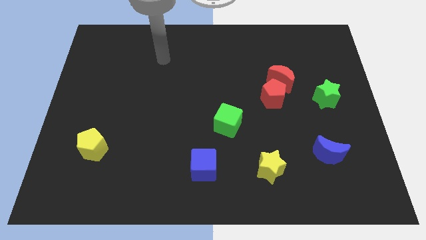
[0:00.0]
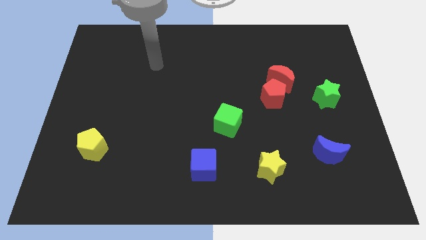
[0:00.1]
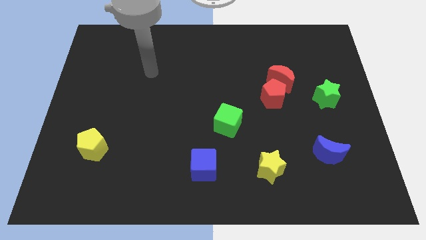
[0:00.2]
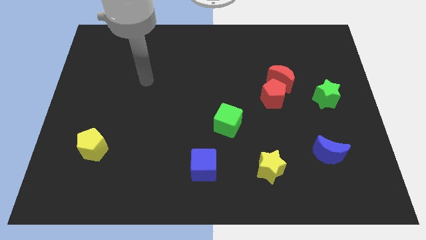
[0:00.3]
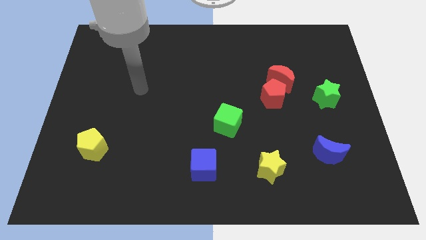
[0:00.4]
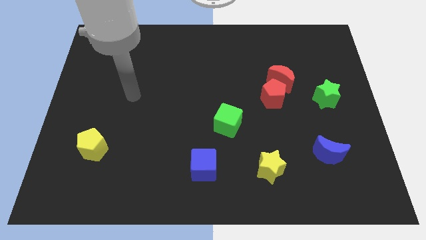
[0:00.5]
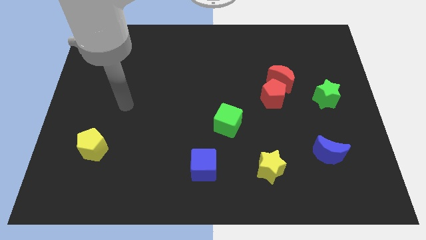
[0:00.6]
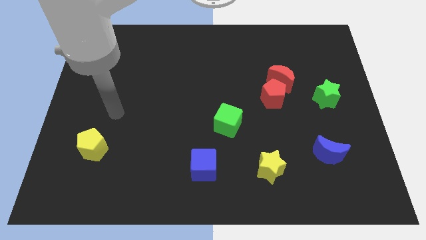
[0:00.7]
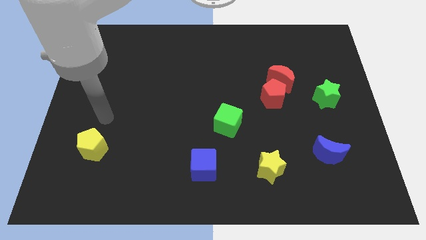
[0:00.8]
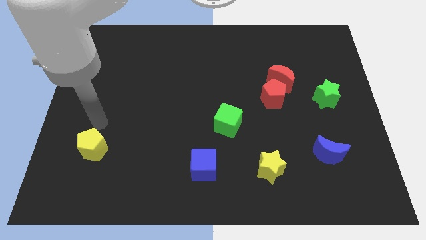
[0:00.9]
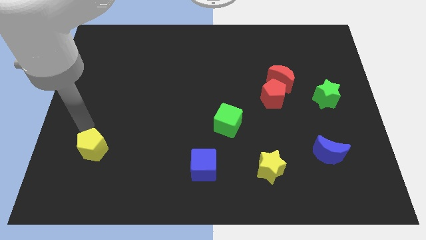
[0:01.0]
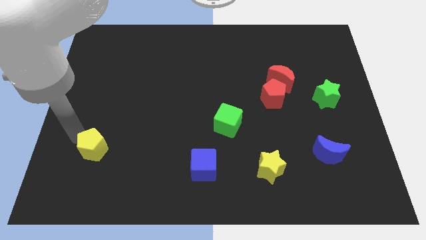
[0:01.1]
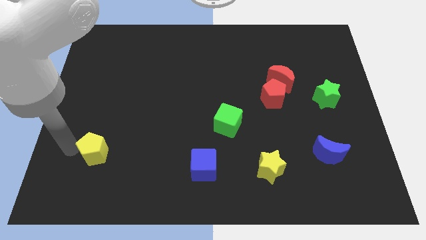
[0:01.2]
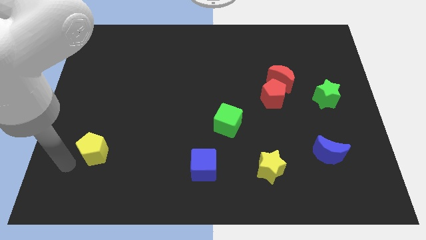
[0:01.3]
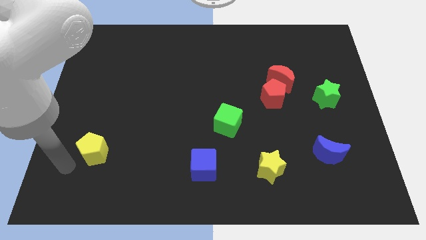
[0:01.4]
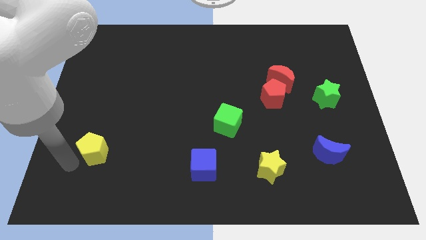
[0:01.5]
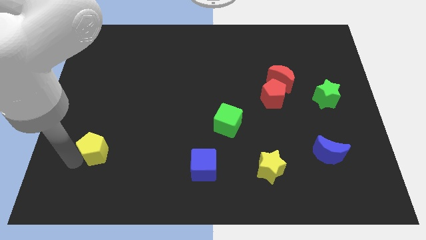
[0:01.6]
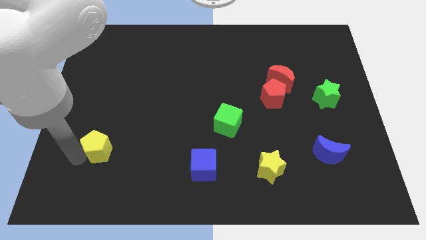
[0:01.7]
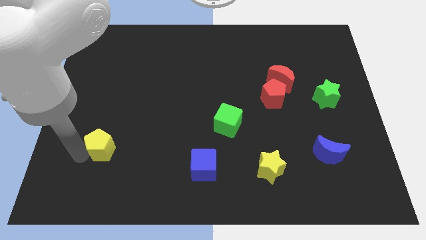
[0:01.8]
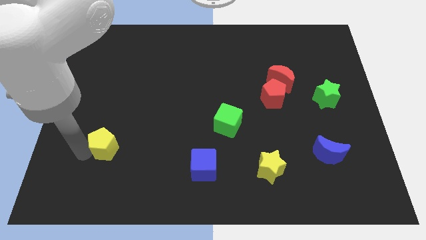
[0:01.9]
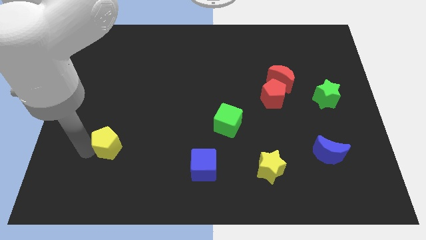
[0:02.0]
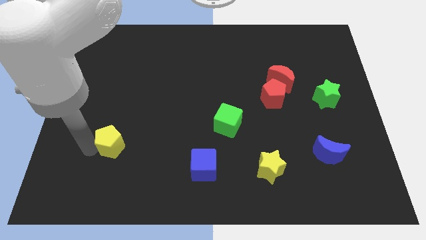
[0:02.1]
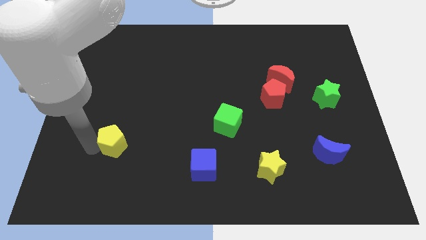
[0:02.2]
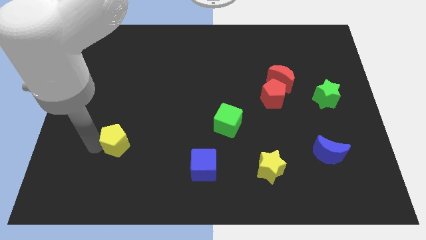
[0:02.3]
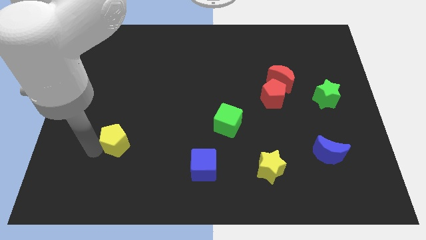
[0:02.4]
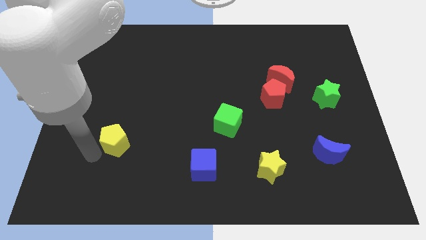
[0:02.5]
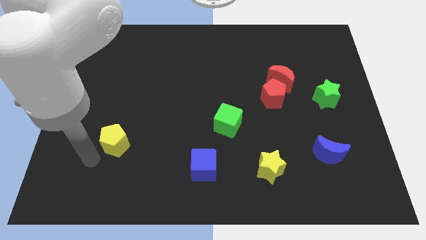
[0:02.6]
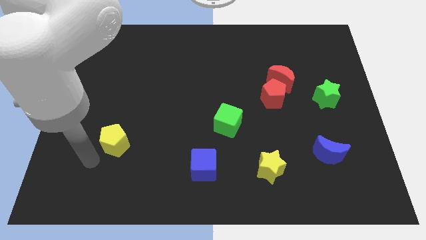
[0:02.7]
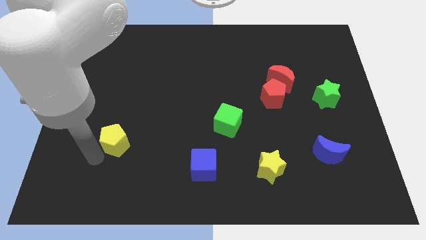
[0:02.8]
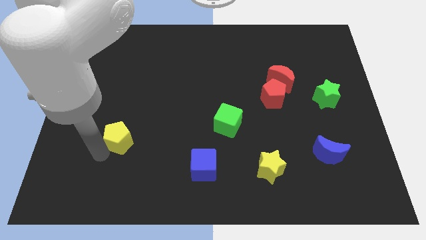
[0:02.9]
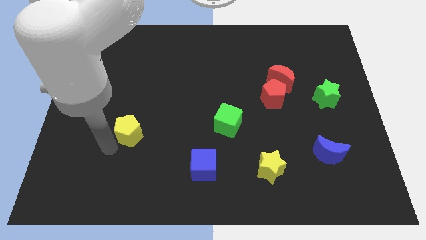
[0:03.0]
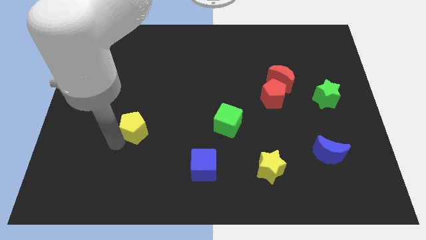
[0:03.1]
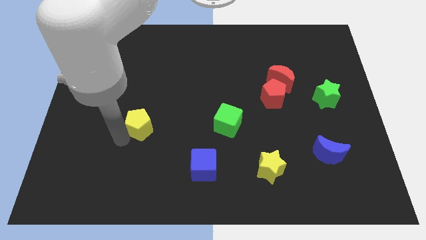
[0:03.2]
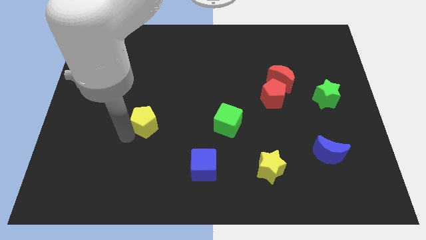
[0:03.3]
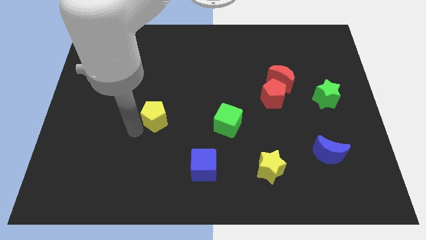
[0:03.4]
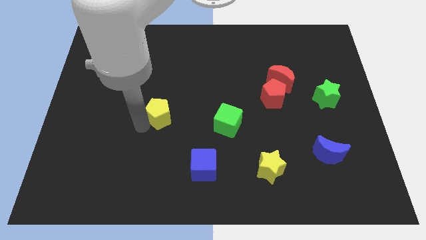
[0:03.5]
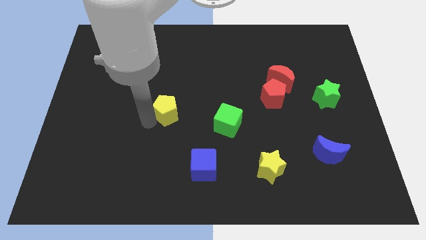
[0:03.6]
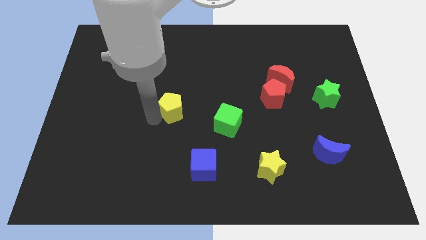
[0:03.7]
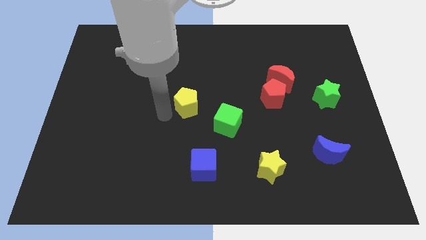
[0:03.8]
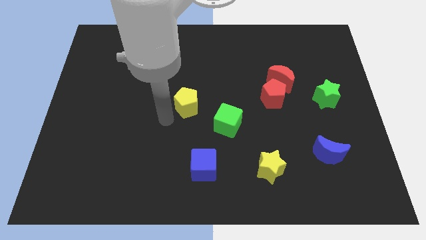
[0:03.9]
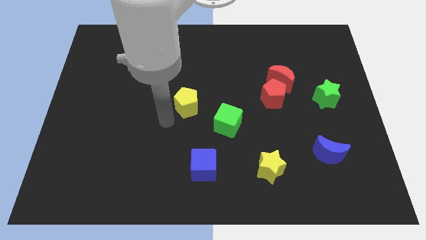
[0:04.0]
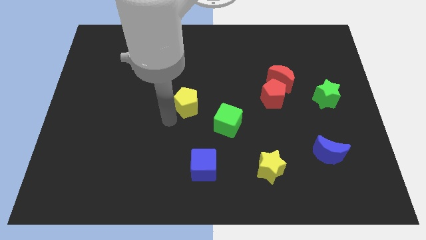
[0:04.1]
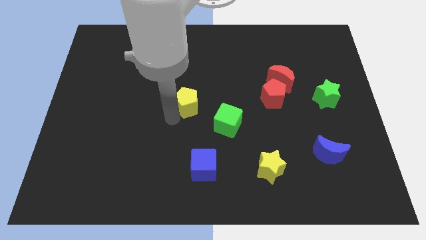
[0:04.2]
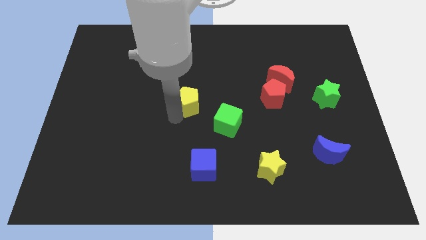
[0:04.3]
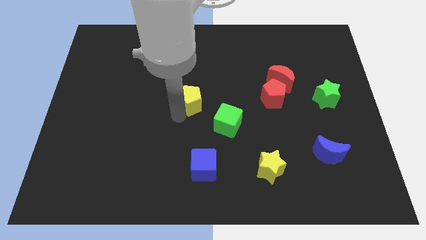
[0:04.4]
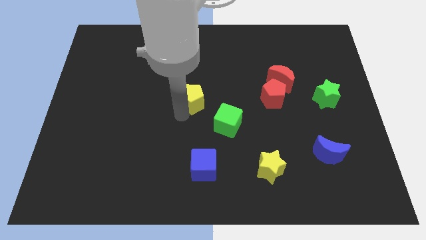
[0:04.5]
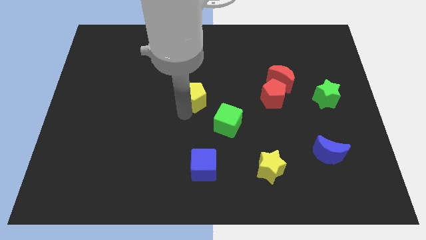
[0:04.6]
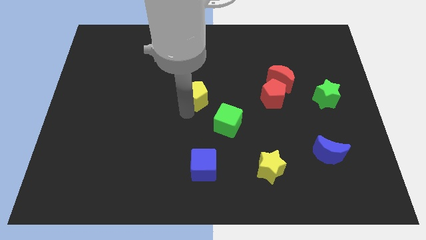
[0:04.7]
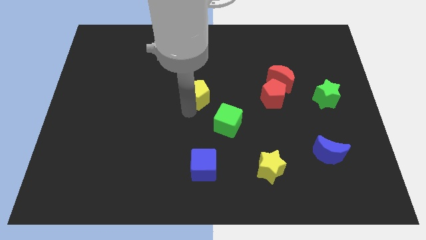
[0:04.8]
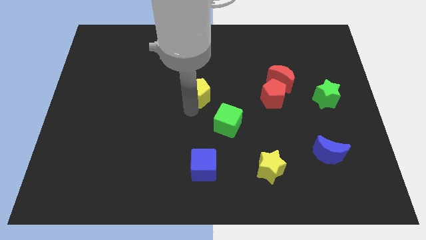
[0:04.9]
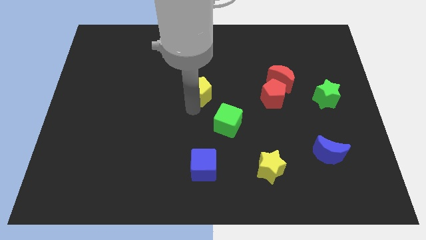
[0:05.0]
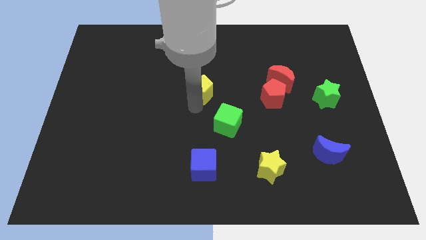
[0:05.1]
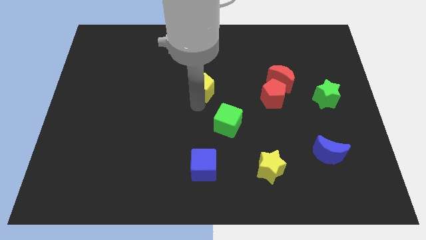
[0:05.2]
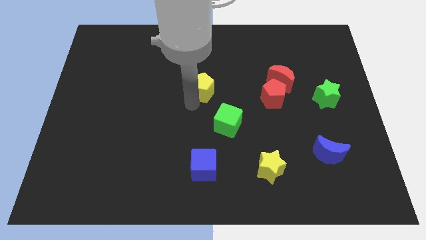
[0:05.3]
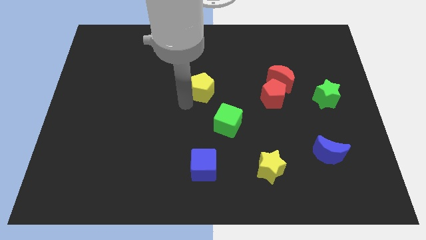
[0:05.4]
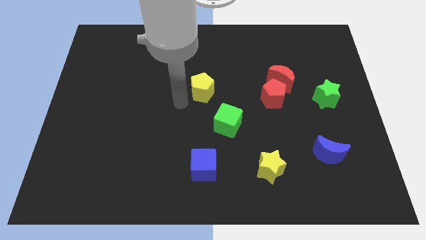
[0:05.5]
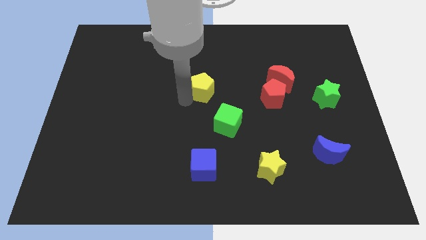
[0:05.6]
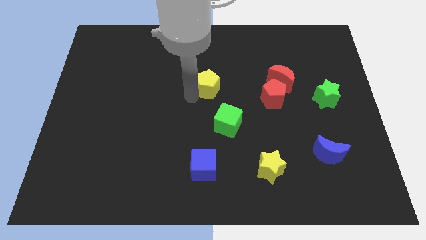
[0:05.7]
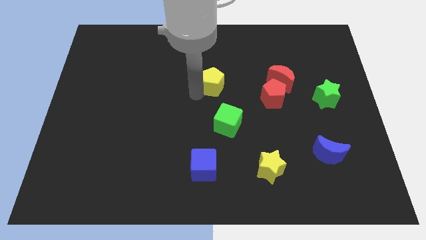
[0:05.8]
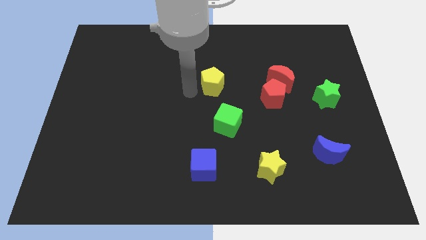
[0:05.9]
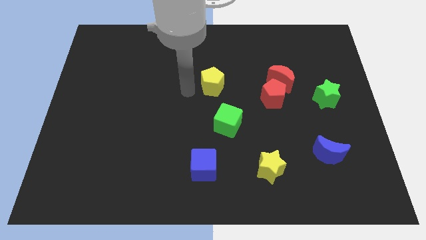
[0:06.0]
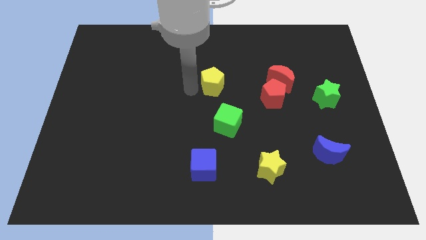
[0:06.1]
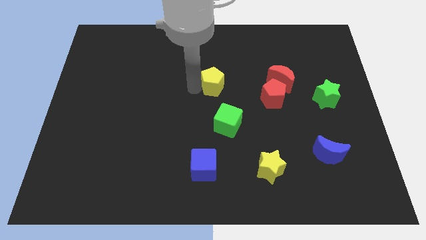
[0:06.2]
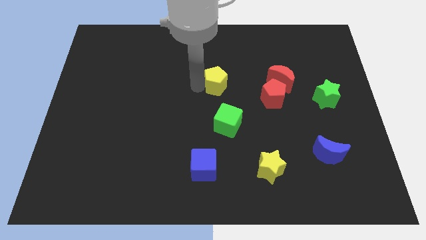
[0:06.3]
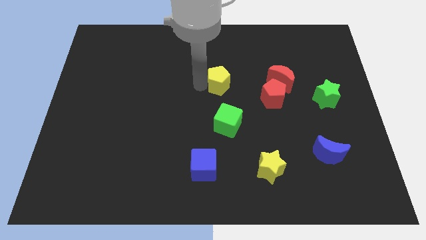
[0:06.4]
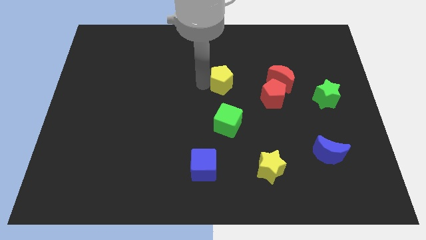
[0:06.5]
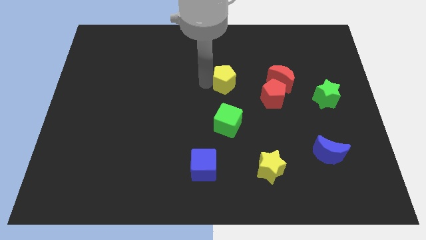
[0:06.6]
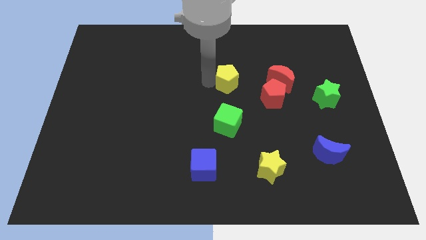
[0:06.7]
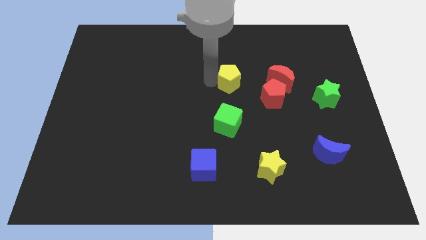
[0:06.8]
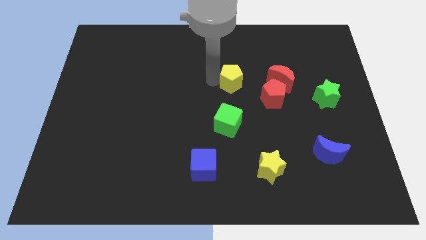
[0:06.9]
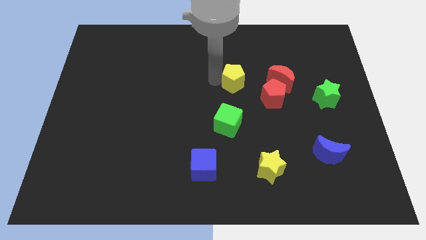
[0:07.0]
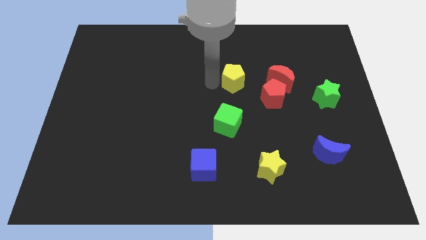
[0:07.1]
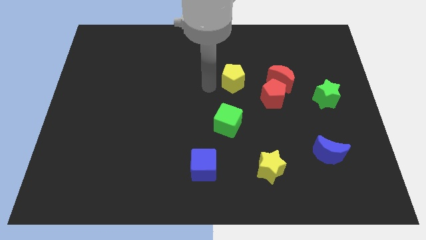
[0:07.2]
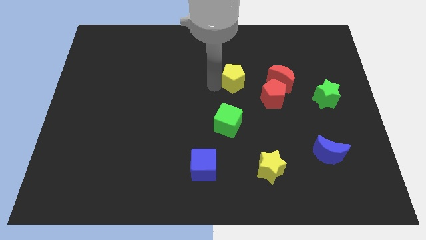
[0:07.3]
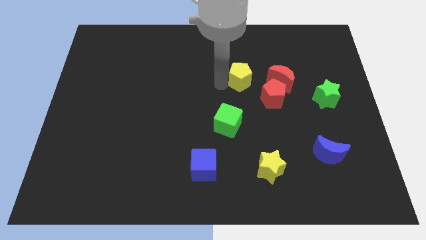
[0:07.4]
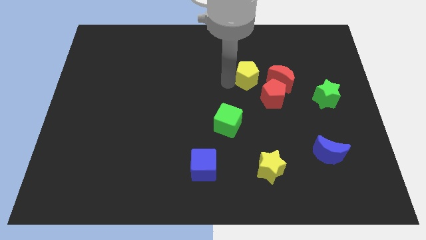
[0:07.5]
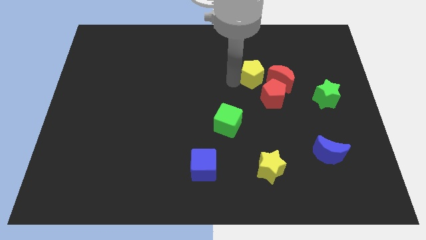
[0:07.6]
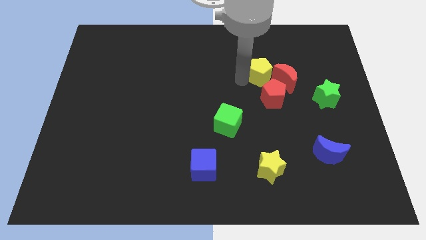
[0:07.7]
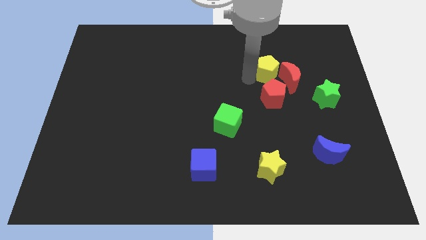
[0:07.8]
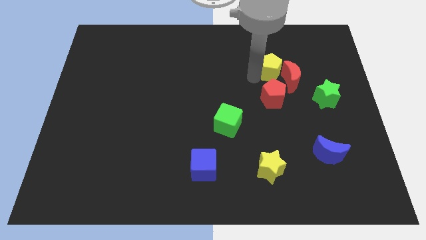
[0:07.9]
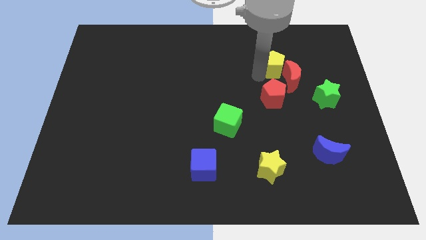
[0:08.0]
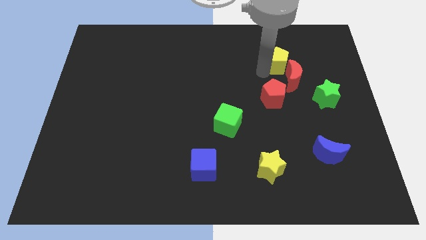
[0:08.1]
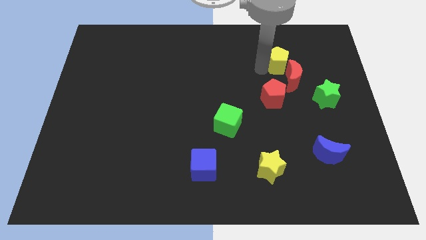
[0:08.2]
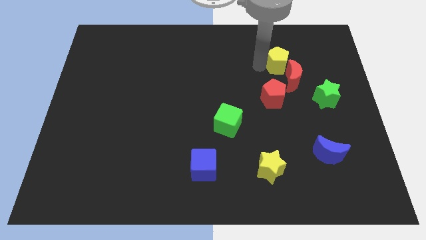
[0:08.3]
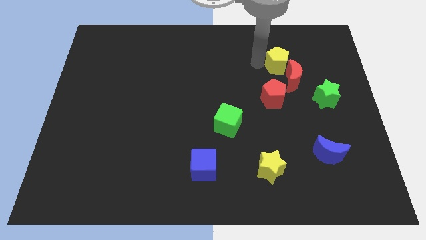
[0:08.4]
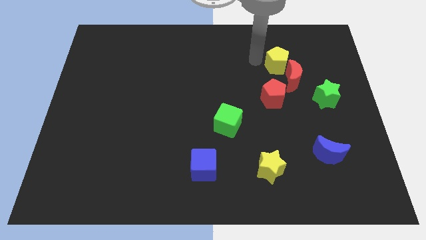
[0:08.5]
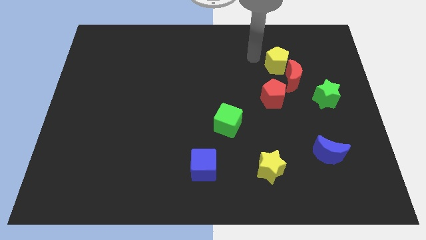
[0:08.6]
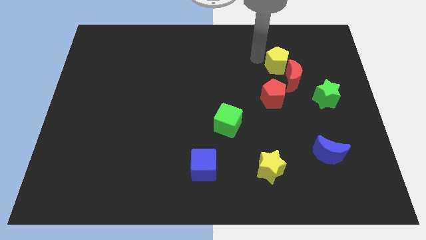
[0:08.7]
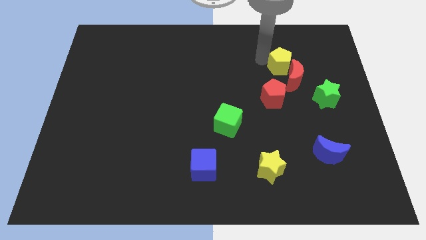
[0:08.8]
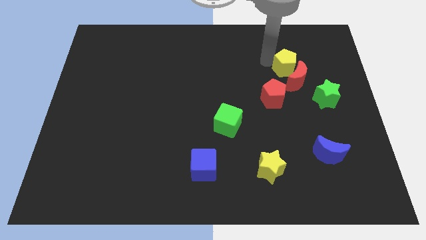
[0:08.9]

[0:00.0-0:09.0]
push the yellow pentagon to the top right of the red pentagon
